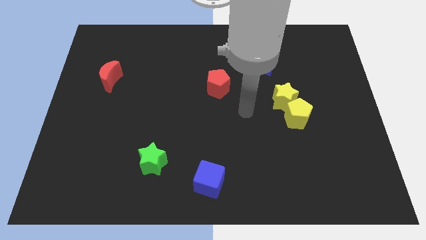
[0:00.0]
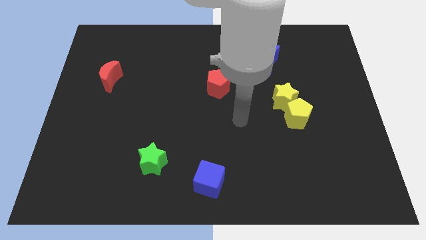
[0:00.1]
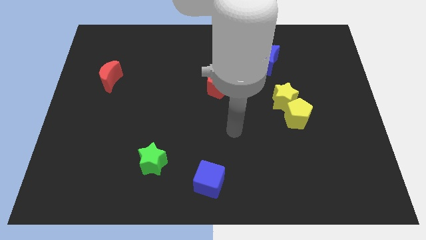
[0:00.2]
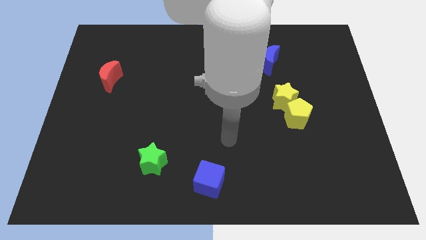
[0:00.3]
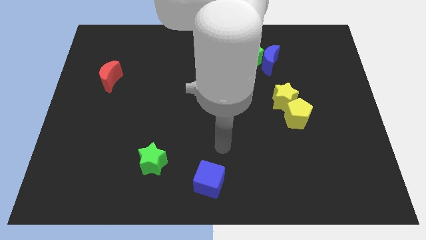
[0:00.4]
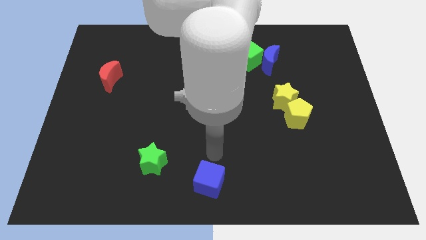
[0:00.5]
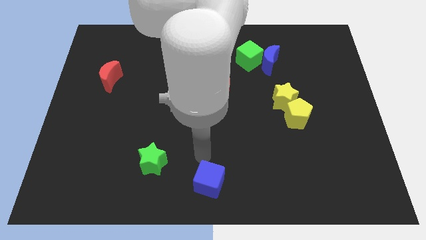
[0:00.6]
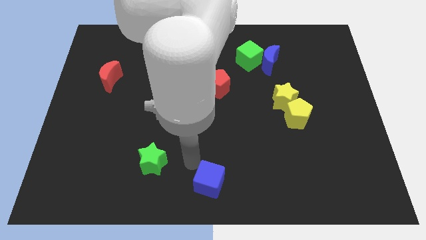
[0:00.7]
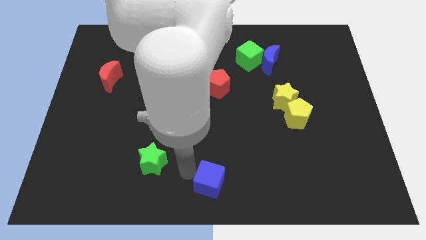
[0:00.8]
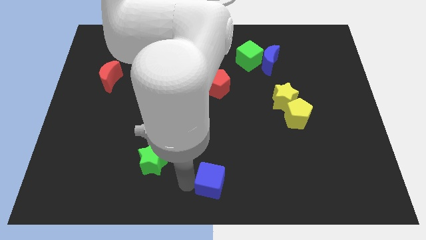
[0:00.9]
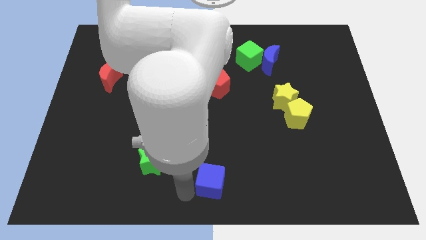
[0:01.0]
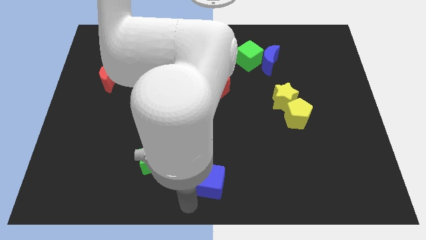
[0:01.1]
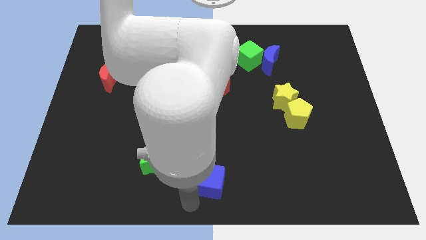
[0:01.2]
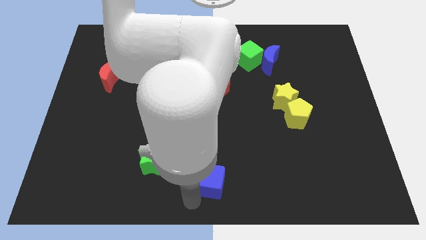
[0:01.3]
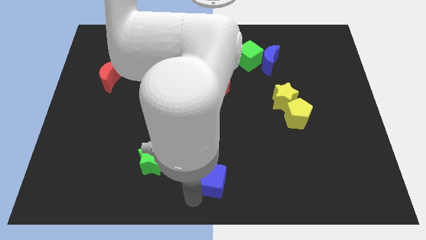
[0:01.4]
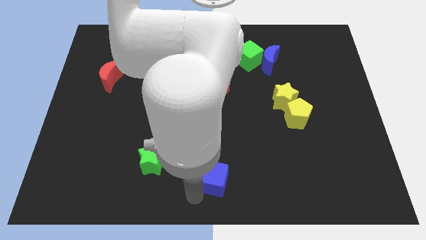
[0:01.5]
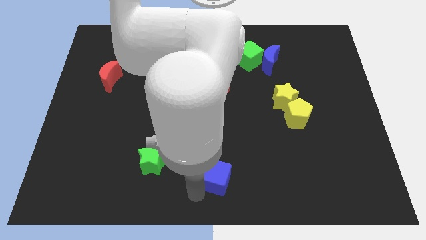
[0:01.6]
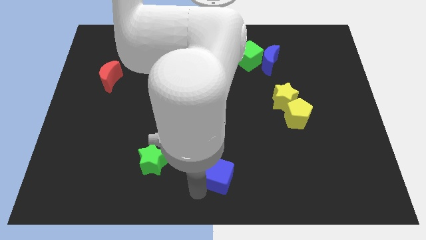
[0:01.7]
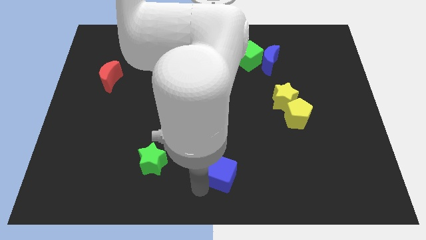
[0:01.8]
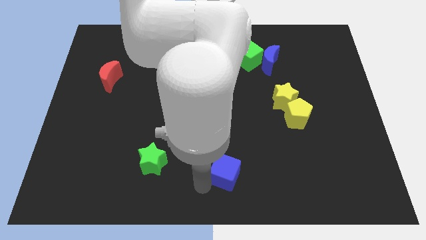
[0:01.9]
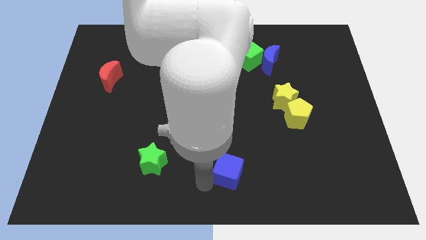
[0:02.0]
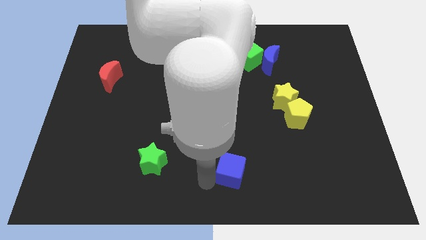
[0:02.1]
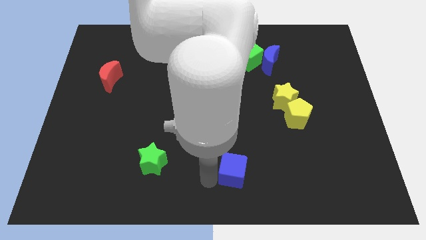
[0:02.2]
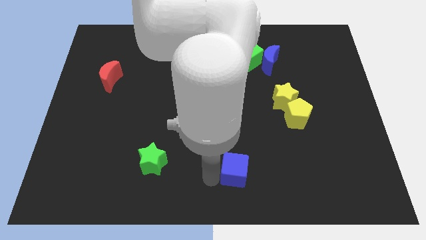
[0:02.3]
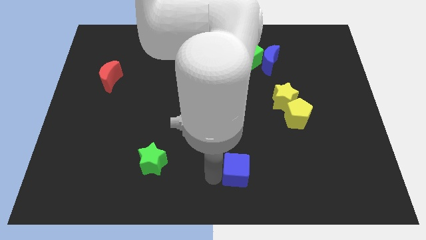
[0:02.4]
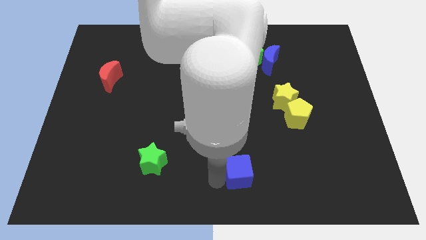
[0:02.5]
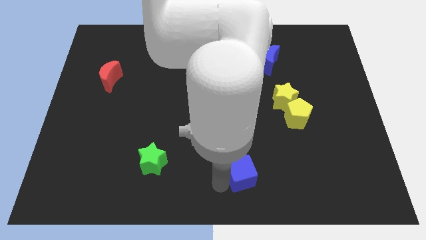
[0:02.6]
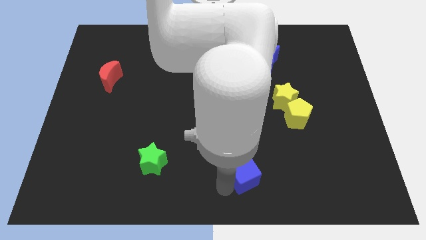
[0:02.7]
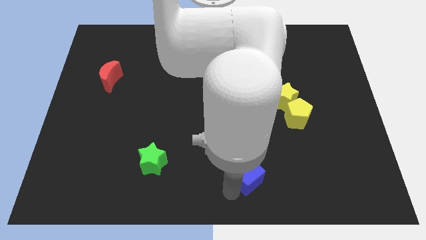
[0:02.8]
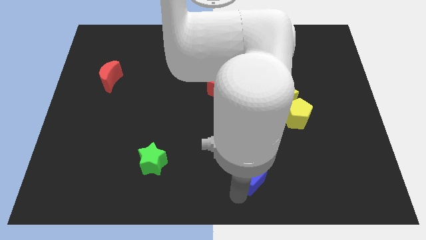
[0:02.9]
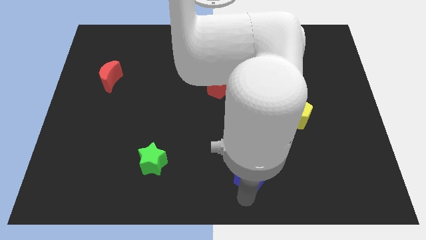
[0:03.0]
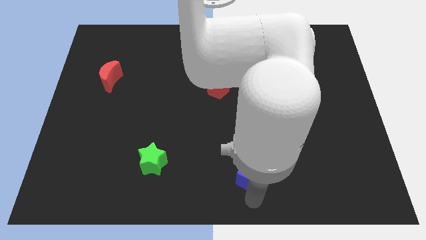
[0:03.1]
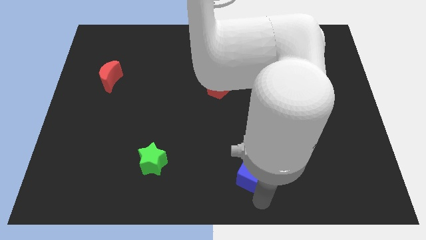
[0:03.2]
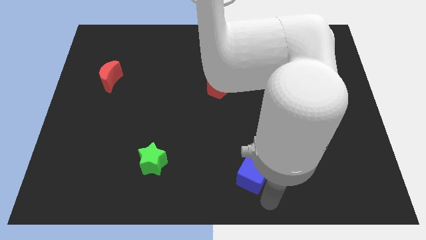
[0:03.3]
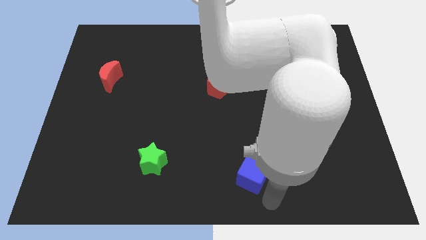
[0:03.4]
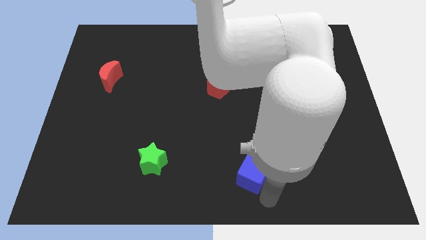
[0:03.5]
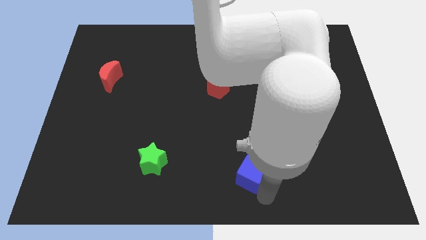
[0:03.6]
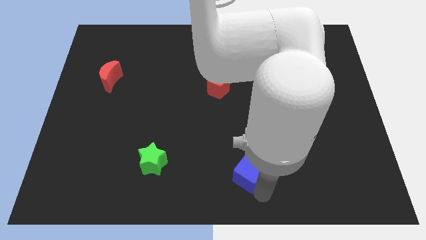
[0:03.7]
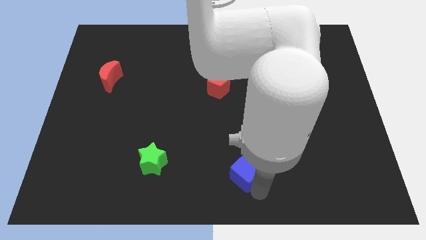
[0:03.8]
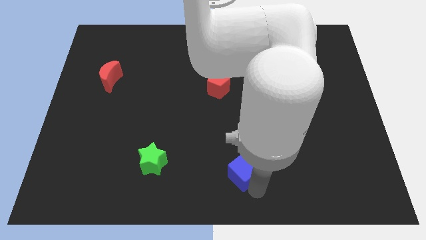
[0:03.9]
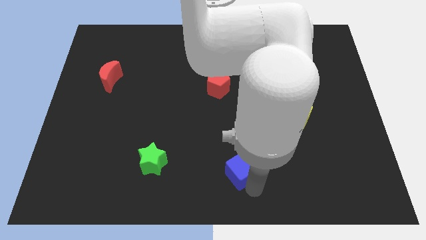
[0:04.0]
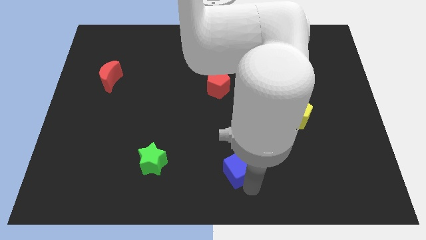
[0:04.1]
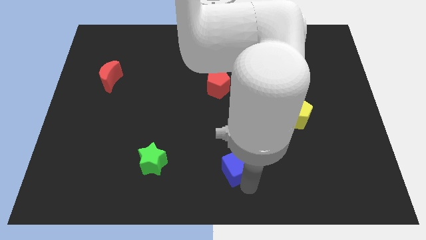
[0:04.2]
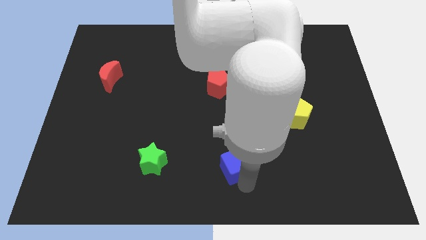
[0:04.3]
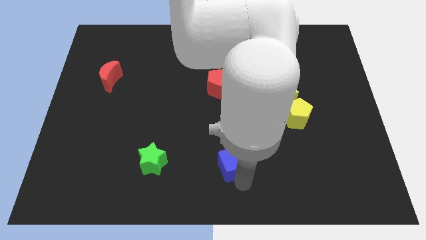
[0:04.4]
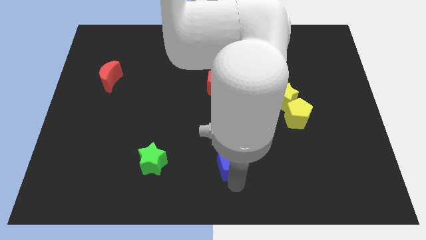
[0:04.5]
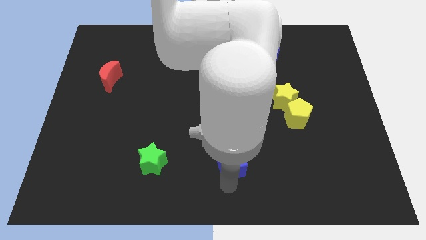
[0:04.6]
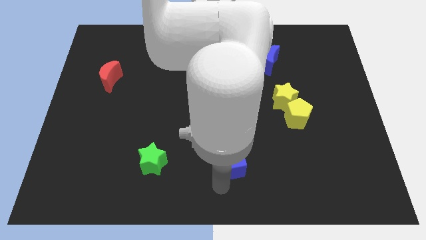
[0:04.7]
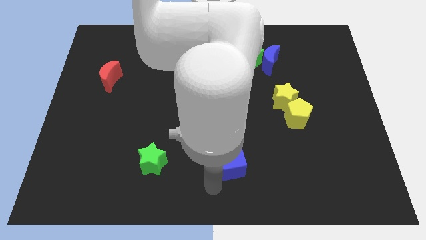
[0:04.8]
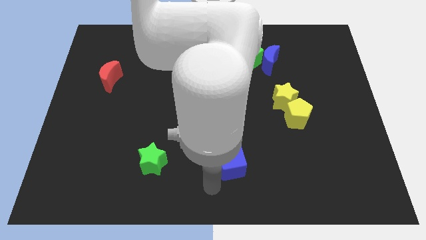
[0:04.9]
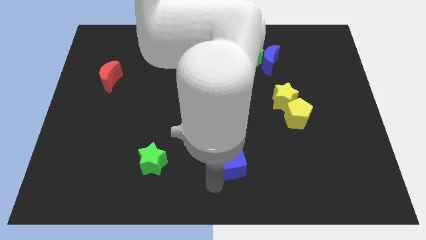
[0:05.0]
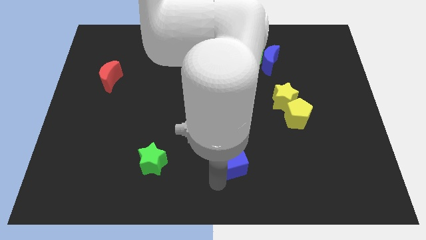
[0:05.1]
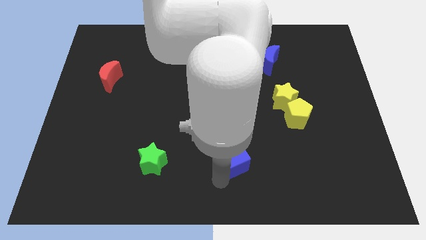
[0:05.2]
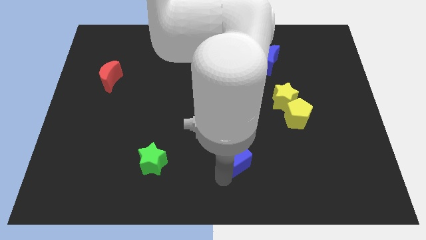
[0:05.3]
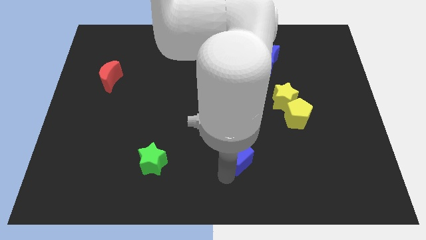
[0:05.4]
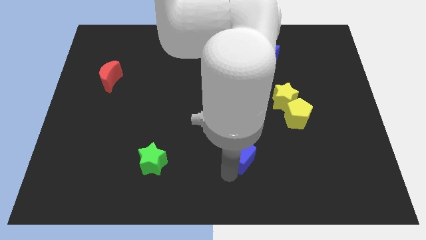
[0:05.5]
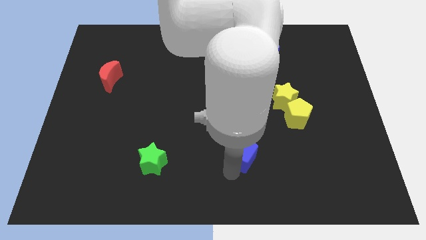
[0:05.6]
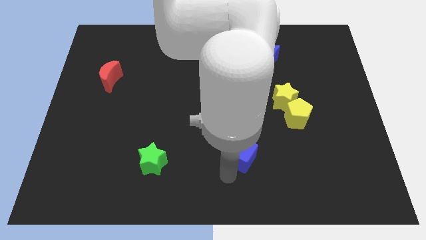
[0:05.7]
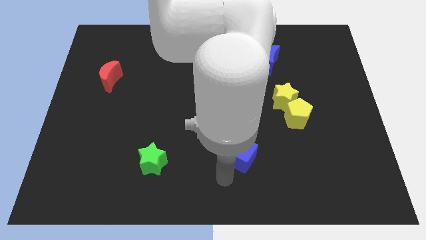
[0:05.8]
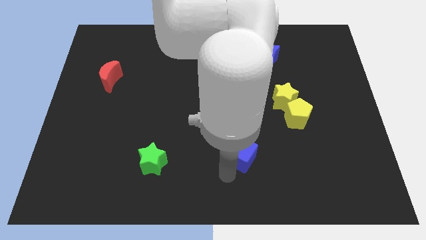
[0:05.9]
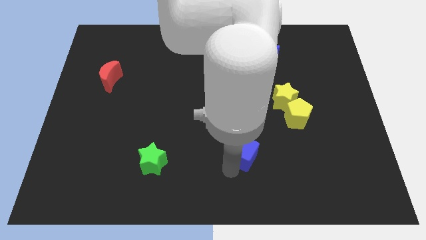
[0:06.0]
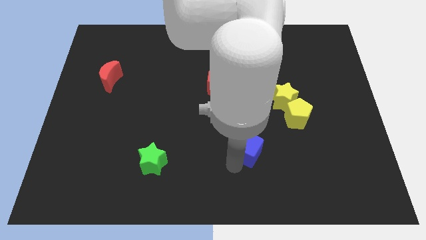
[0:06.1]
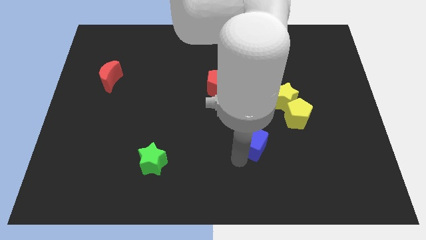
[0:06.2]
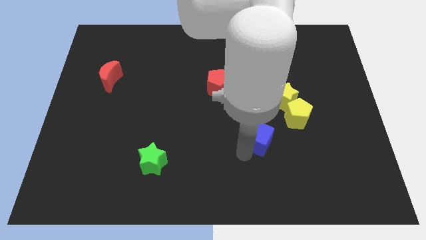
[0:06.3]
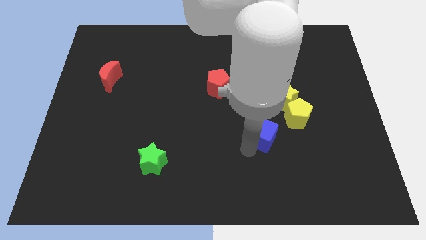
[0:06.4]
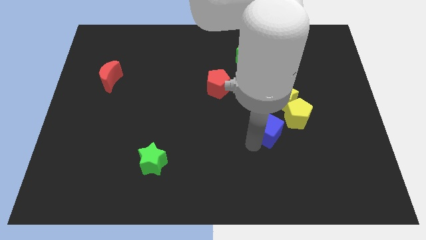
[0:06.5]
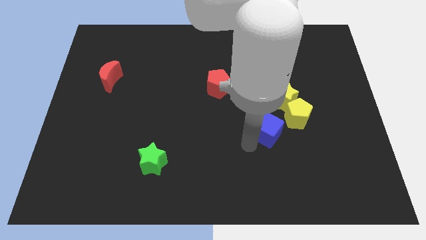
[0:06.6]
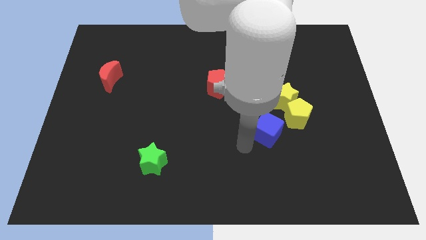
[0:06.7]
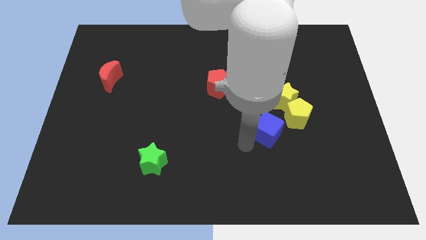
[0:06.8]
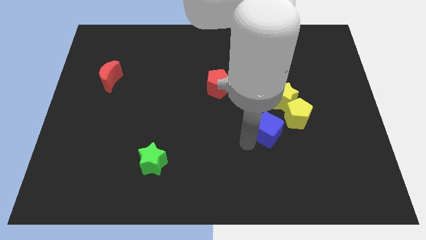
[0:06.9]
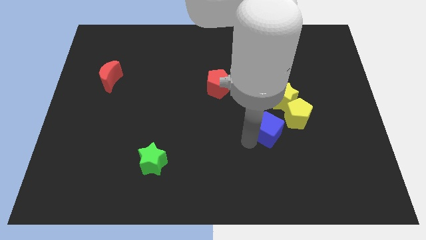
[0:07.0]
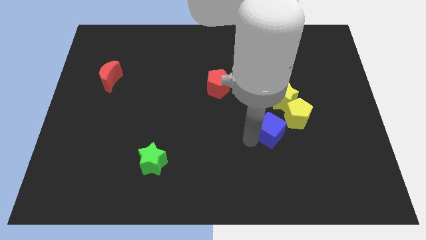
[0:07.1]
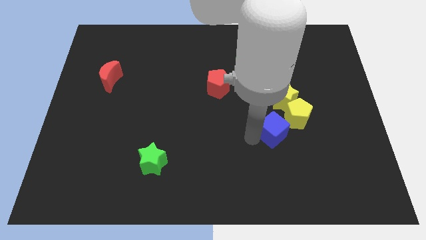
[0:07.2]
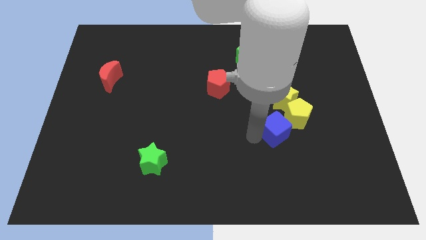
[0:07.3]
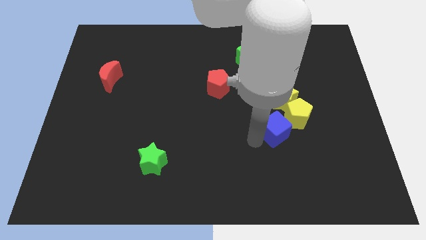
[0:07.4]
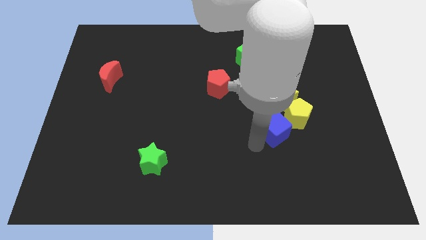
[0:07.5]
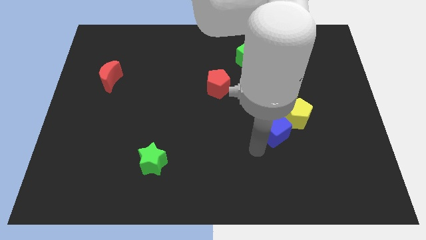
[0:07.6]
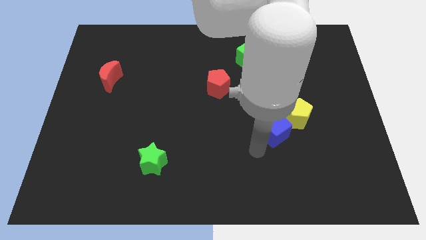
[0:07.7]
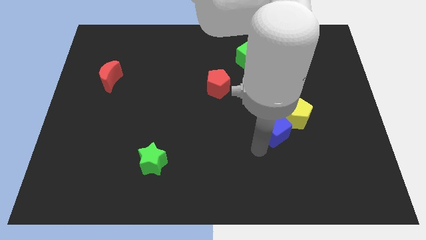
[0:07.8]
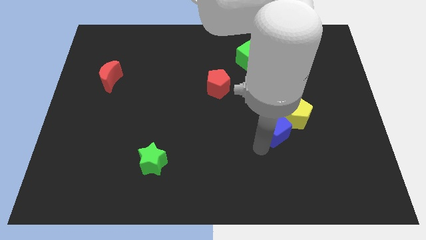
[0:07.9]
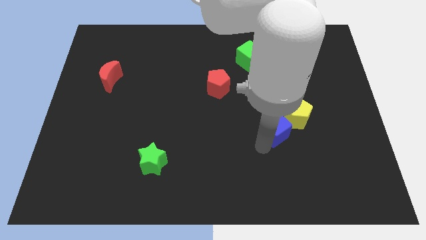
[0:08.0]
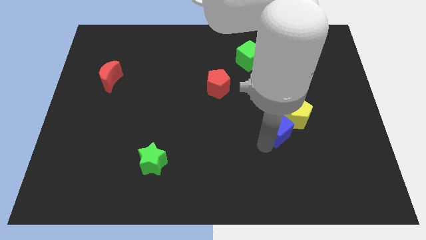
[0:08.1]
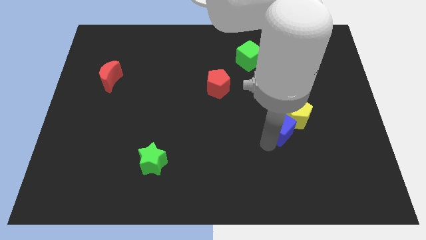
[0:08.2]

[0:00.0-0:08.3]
push the blue cube close to the yellow pentagon
